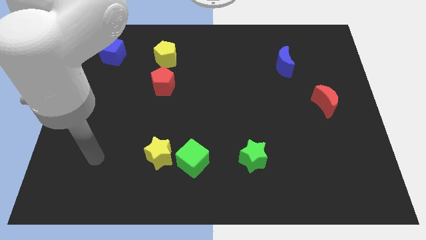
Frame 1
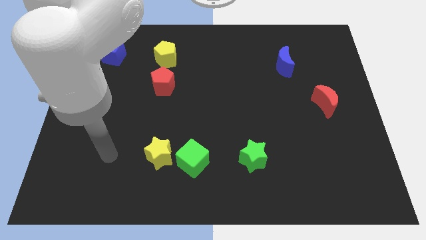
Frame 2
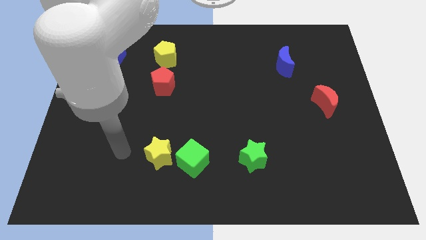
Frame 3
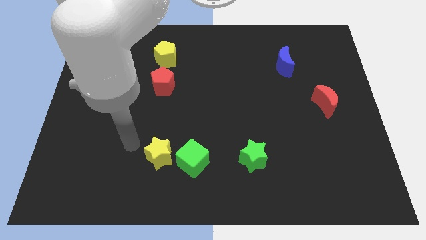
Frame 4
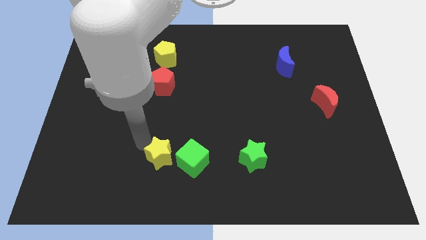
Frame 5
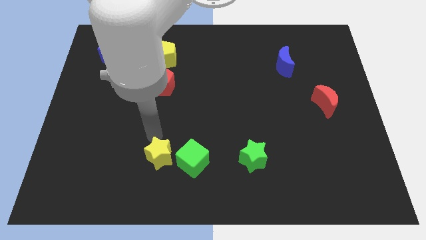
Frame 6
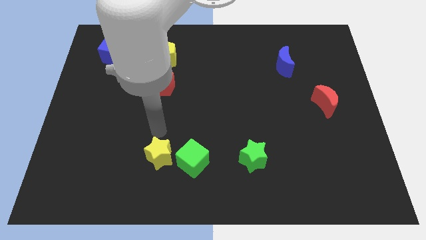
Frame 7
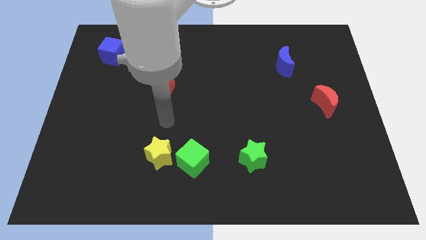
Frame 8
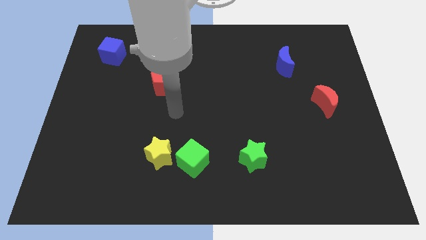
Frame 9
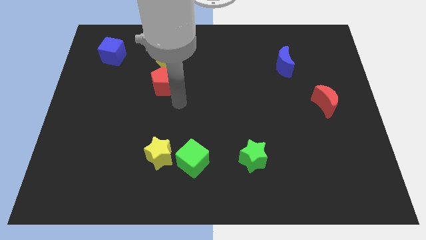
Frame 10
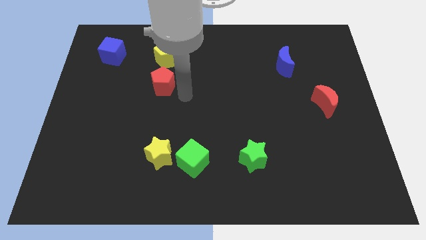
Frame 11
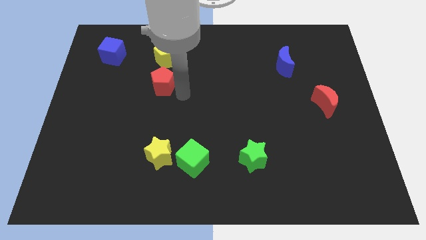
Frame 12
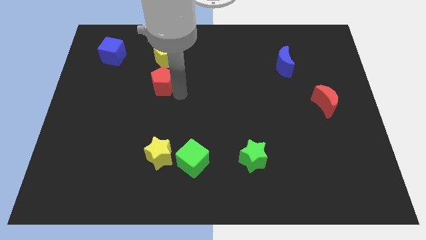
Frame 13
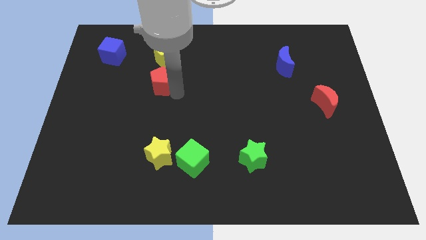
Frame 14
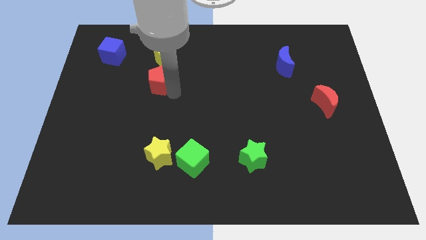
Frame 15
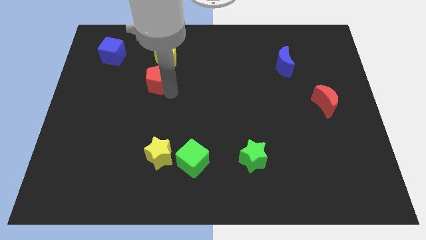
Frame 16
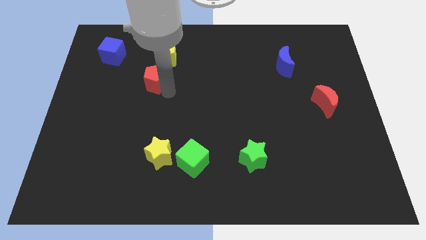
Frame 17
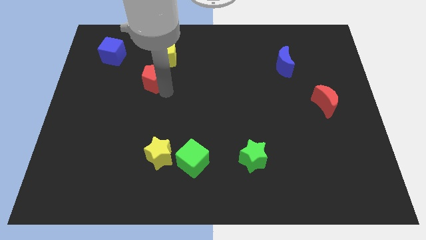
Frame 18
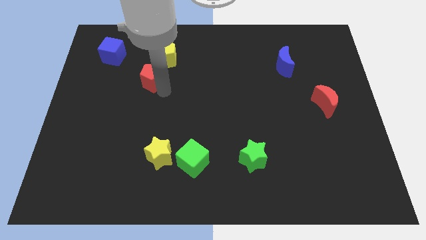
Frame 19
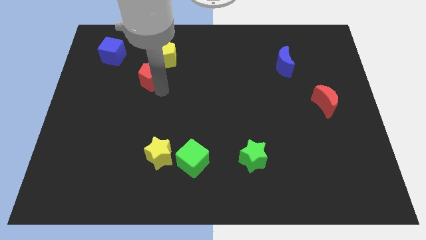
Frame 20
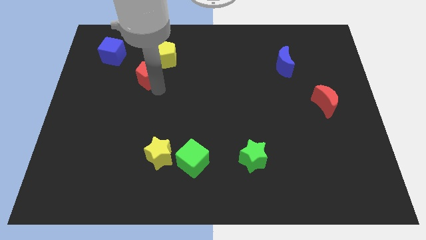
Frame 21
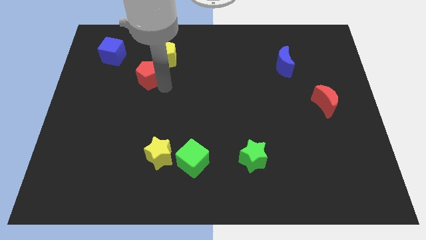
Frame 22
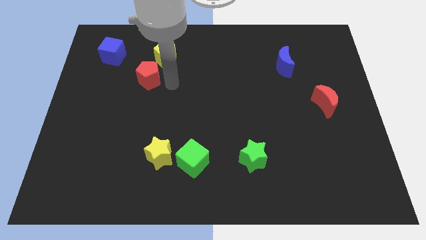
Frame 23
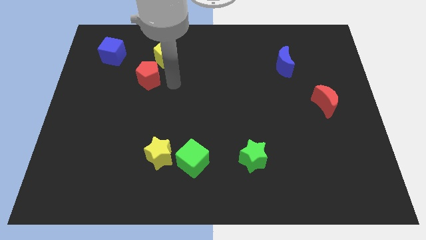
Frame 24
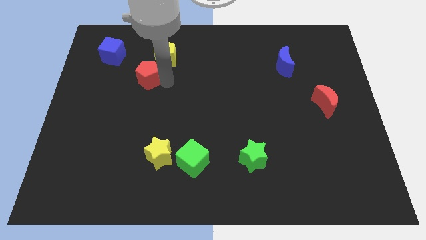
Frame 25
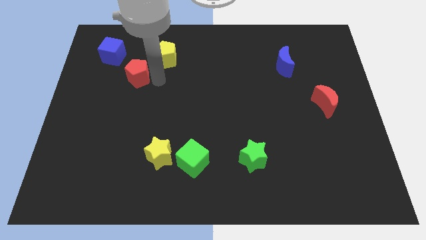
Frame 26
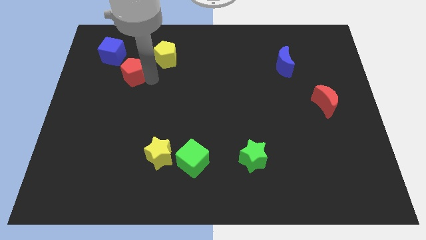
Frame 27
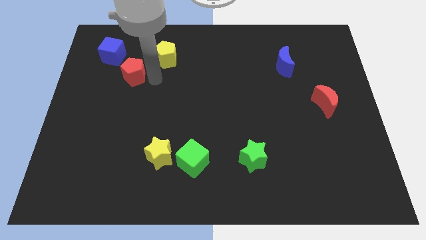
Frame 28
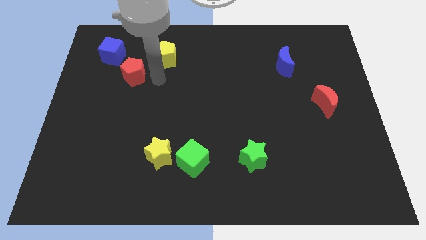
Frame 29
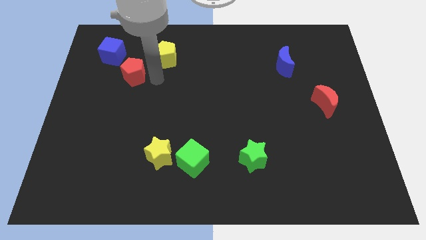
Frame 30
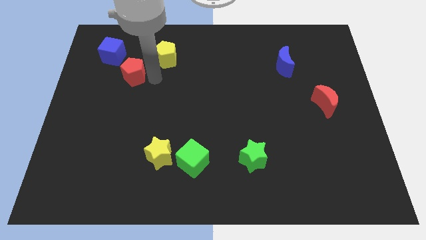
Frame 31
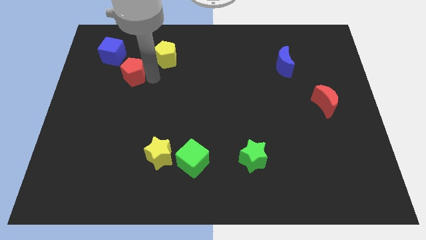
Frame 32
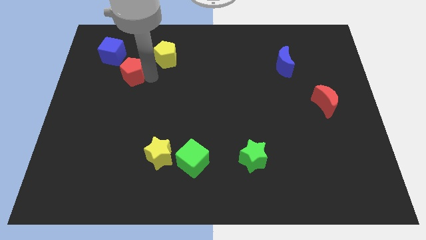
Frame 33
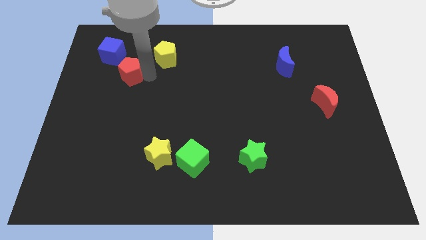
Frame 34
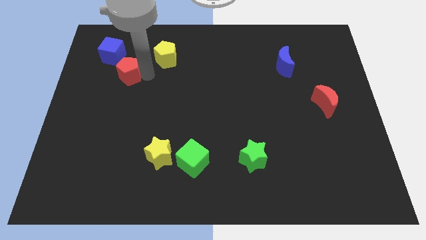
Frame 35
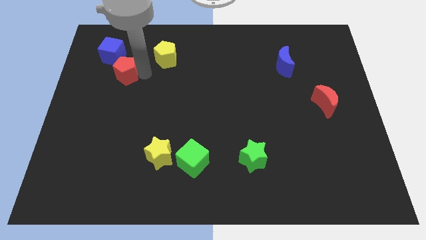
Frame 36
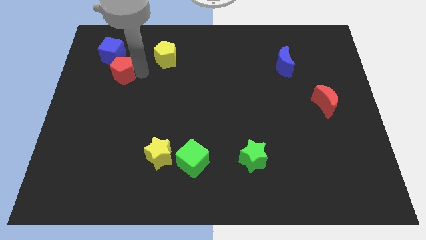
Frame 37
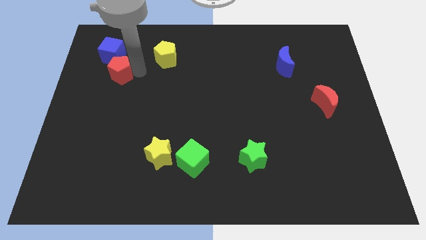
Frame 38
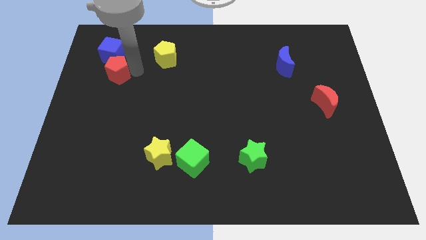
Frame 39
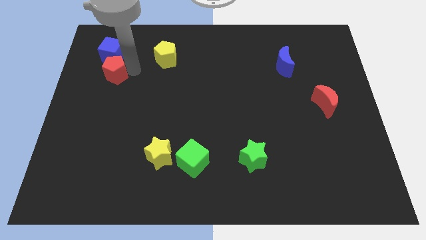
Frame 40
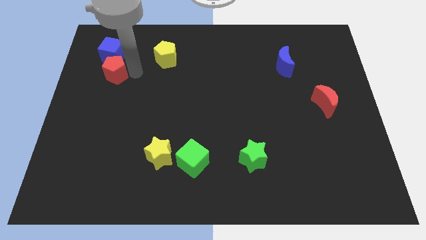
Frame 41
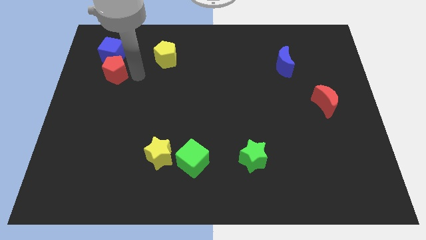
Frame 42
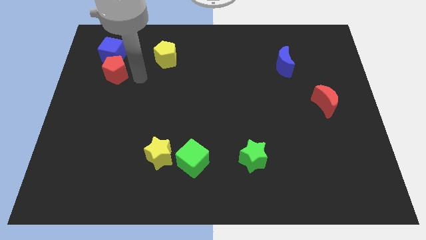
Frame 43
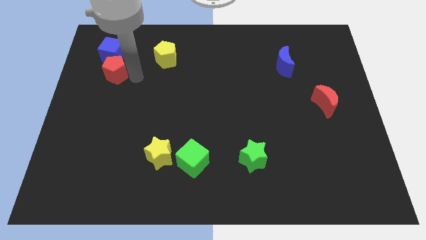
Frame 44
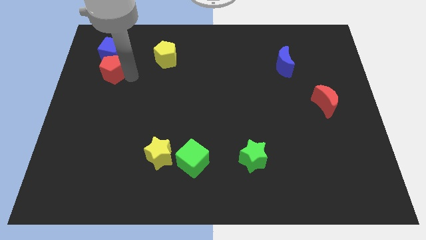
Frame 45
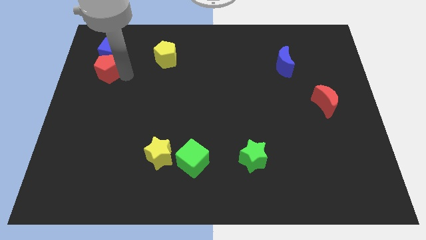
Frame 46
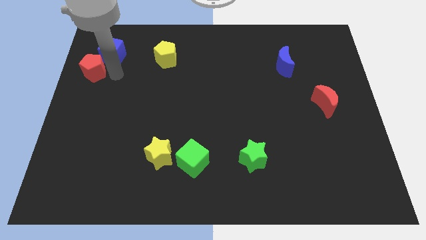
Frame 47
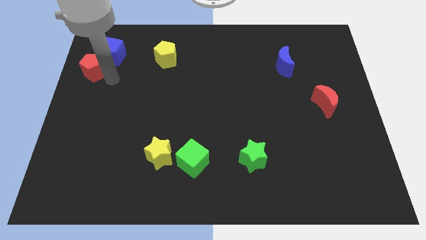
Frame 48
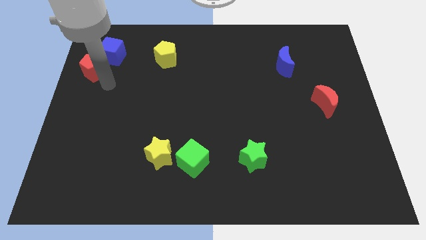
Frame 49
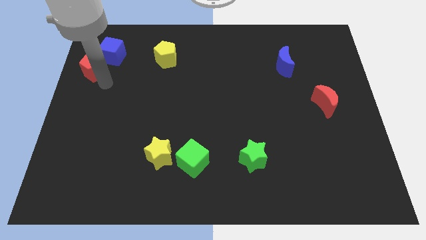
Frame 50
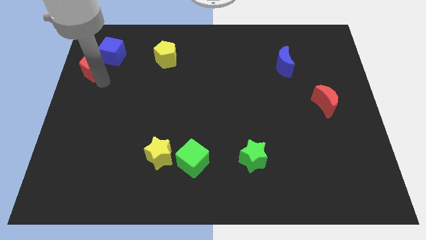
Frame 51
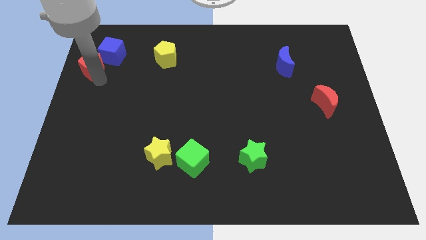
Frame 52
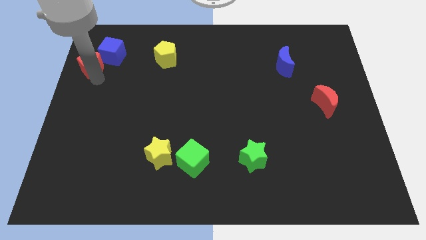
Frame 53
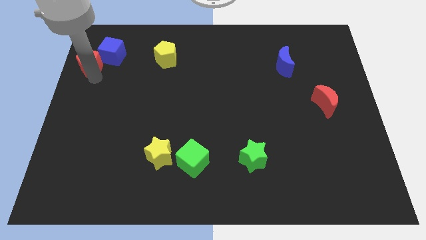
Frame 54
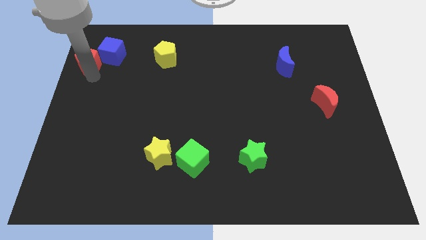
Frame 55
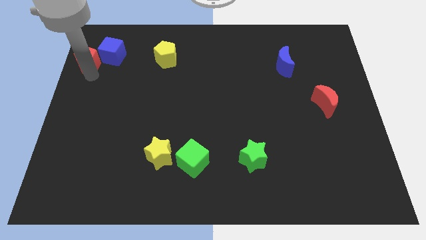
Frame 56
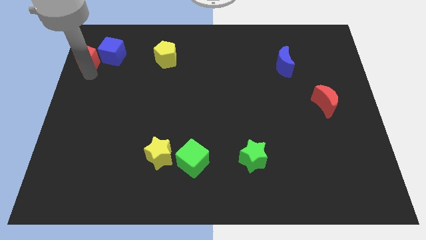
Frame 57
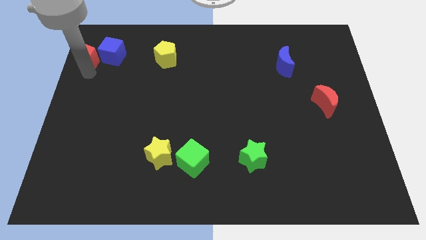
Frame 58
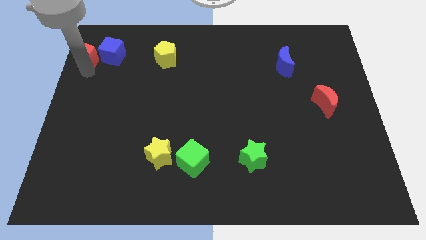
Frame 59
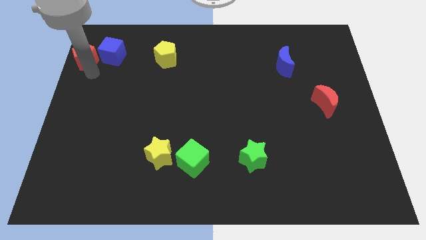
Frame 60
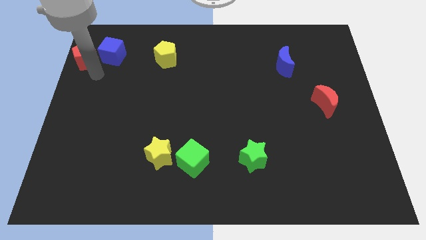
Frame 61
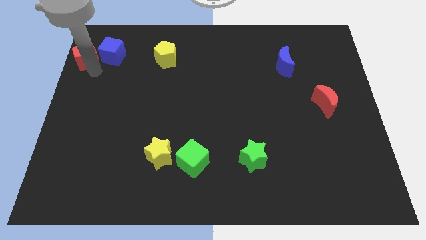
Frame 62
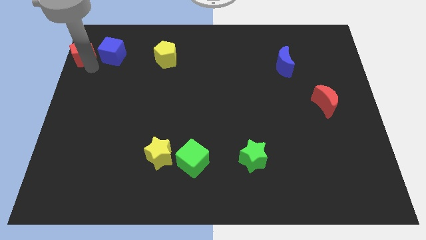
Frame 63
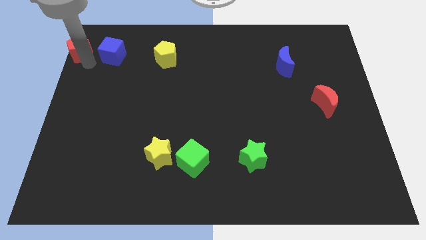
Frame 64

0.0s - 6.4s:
push the red pentagon to the top left of the board

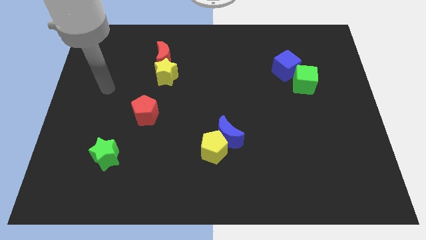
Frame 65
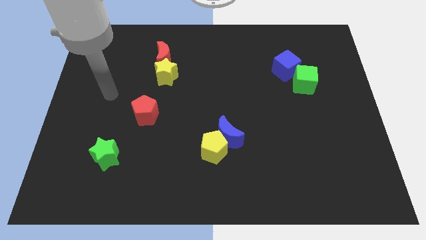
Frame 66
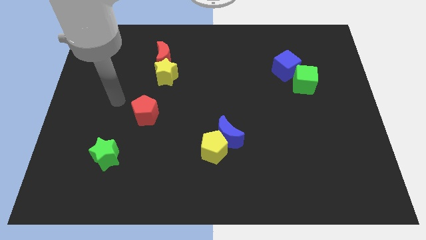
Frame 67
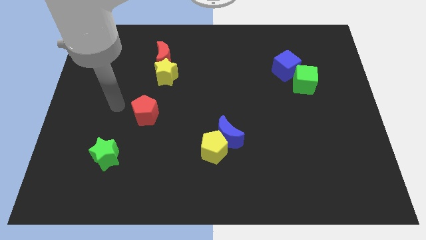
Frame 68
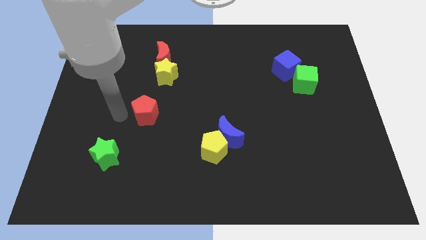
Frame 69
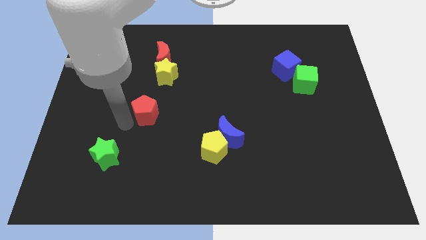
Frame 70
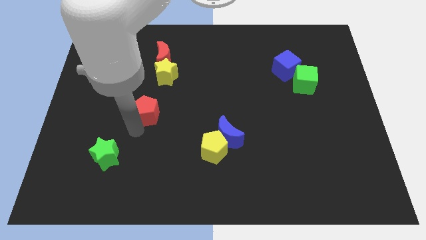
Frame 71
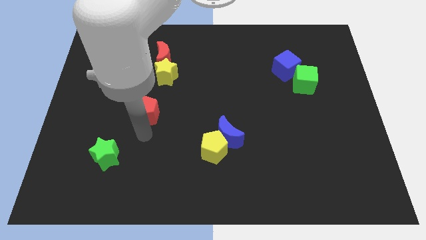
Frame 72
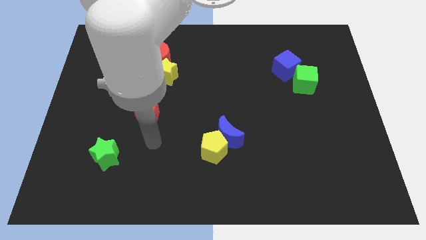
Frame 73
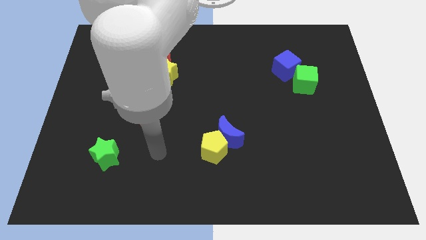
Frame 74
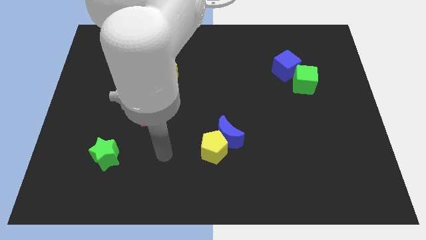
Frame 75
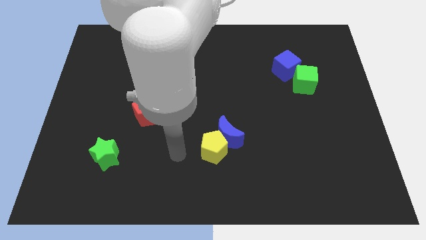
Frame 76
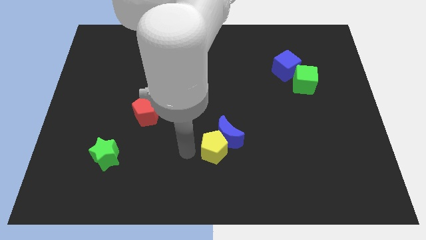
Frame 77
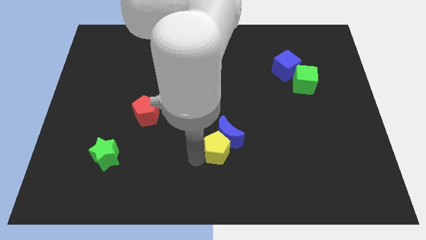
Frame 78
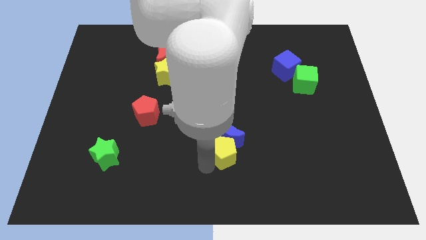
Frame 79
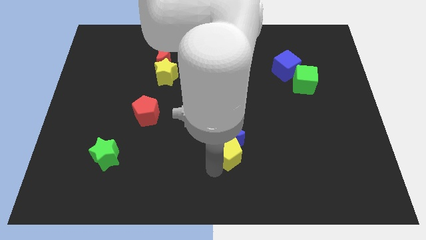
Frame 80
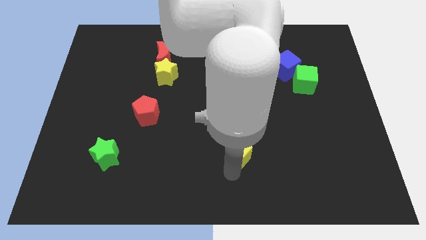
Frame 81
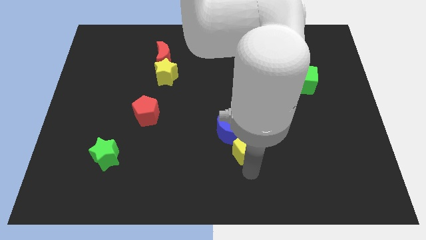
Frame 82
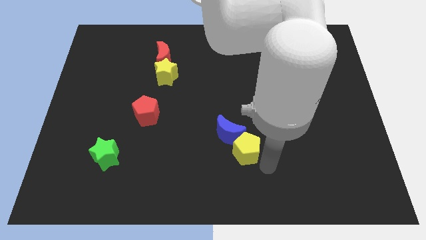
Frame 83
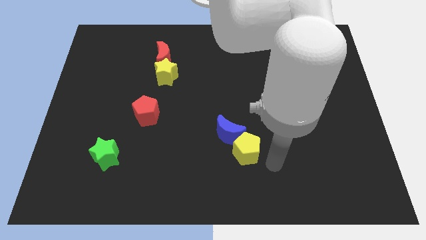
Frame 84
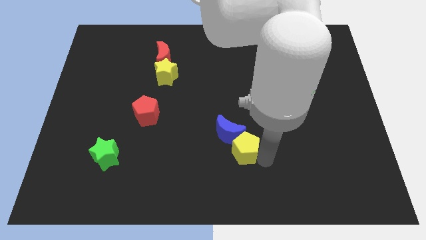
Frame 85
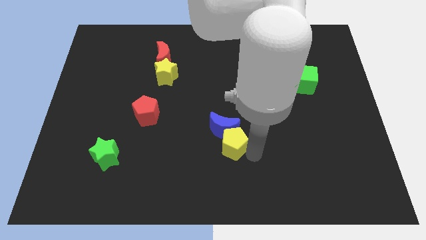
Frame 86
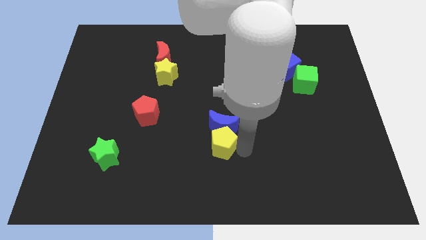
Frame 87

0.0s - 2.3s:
move the yellow pentagon to the middle
